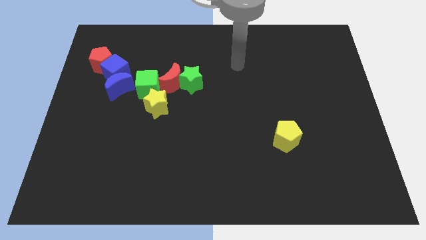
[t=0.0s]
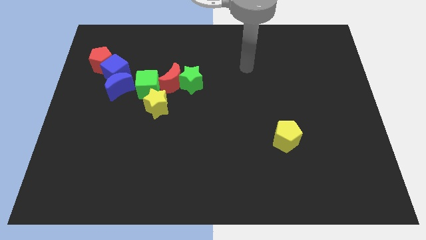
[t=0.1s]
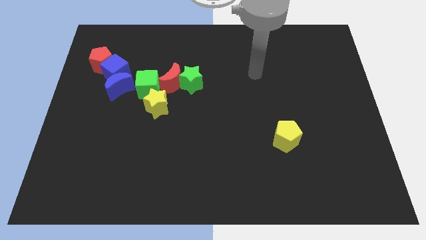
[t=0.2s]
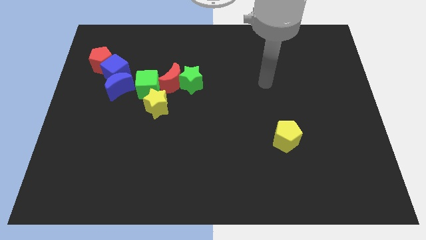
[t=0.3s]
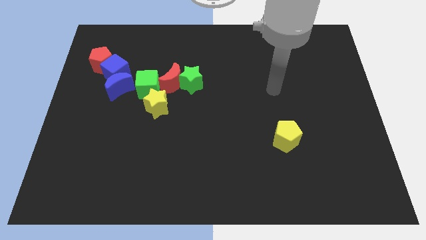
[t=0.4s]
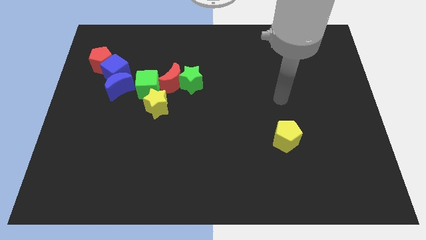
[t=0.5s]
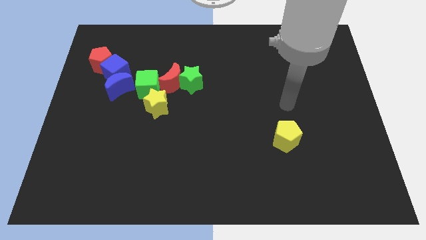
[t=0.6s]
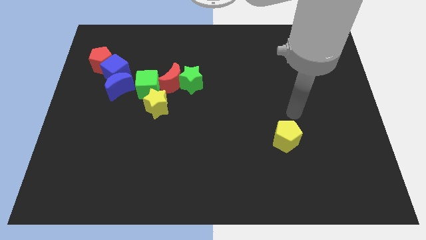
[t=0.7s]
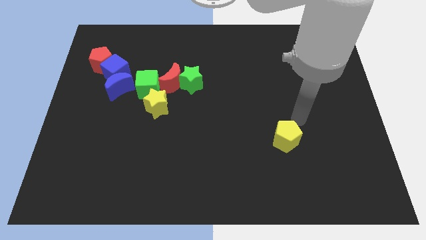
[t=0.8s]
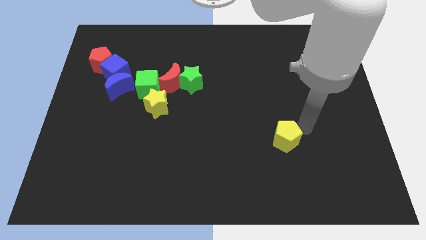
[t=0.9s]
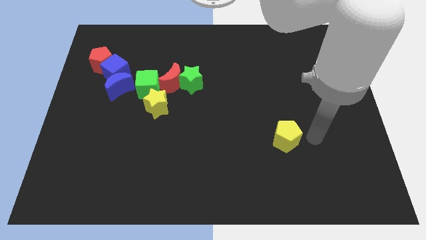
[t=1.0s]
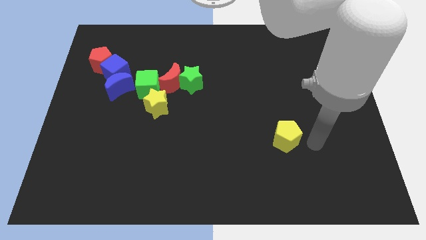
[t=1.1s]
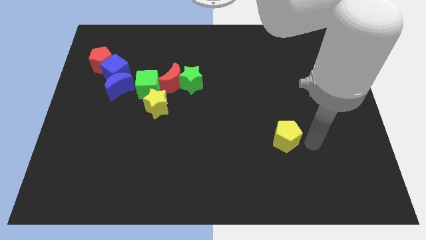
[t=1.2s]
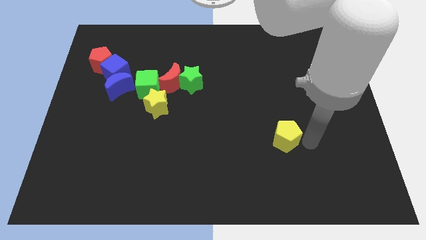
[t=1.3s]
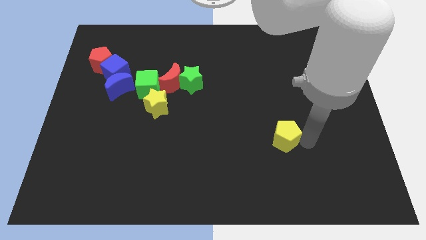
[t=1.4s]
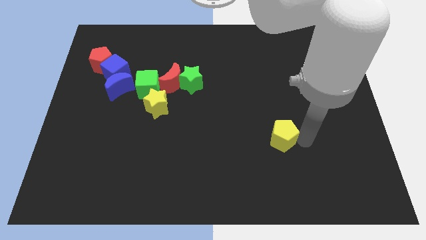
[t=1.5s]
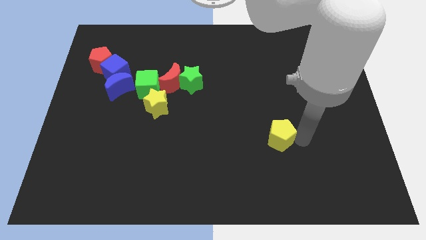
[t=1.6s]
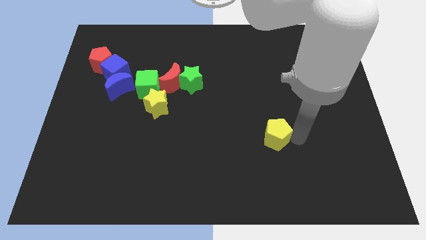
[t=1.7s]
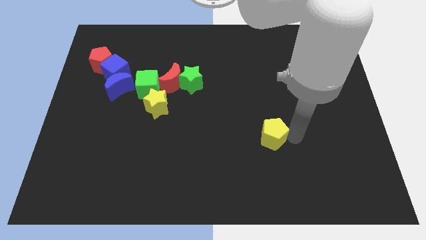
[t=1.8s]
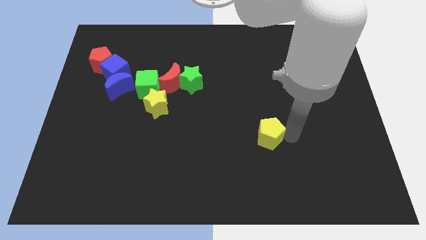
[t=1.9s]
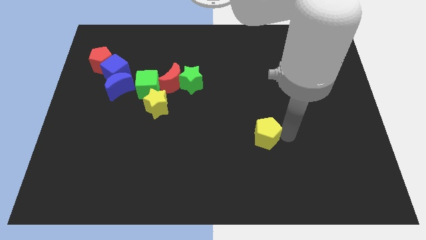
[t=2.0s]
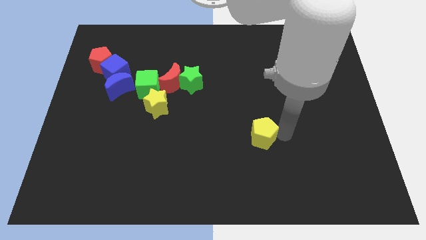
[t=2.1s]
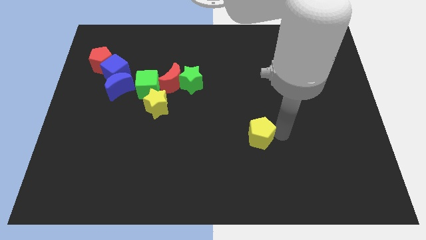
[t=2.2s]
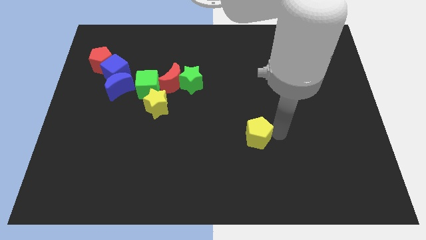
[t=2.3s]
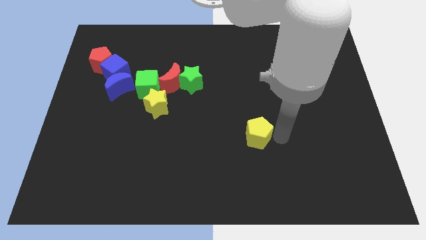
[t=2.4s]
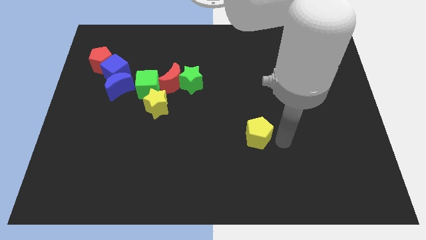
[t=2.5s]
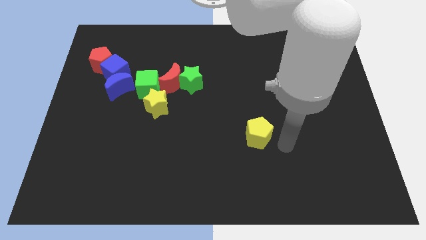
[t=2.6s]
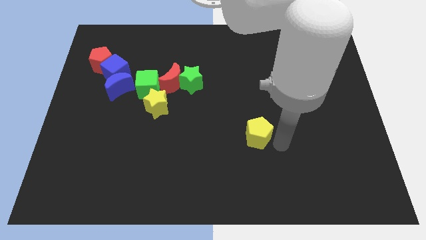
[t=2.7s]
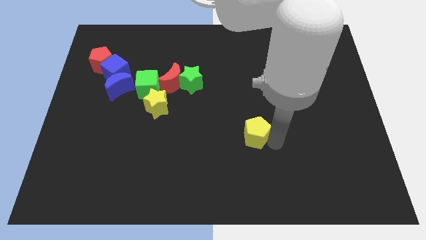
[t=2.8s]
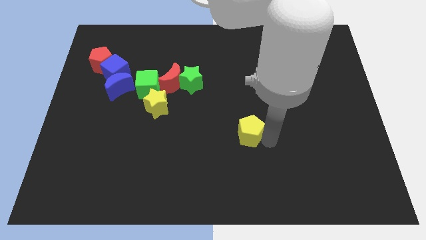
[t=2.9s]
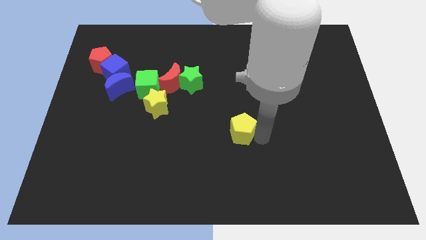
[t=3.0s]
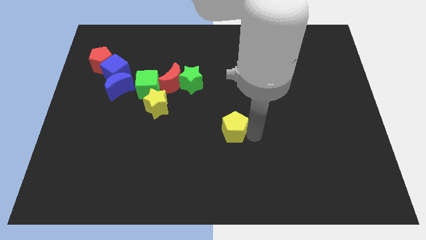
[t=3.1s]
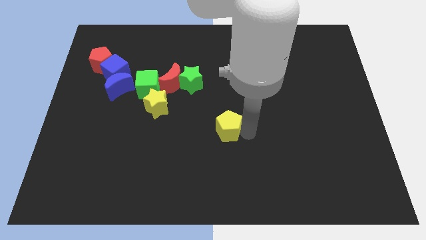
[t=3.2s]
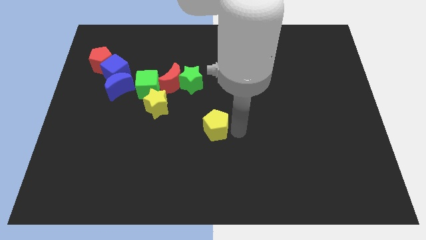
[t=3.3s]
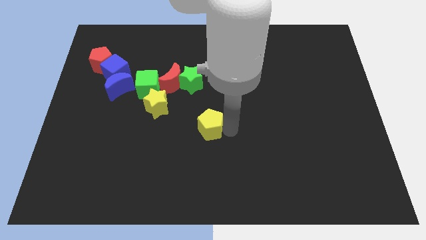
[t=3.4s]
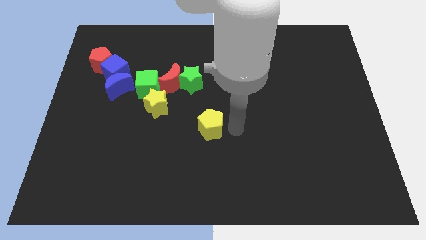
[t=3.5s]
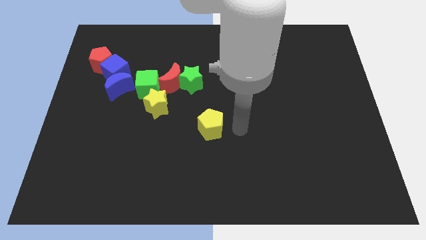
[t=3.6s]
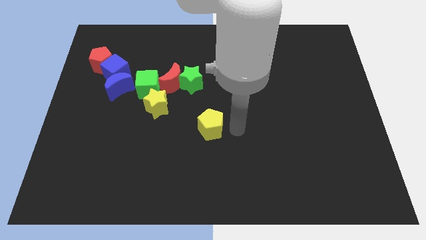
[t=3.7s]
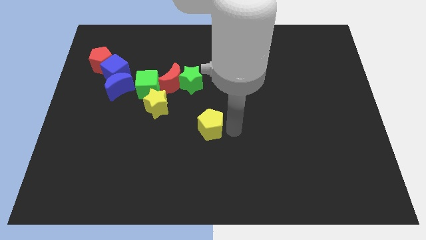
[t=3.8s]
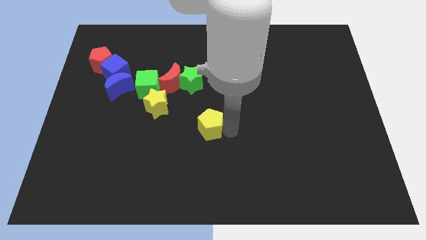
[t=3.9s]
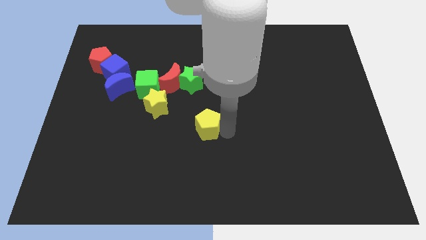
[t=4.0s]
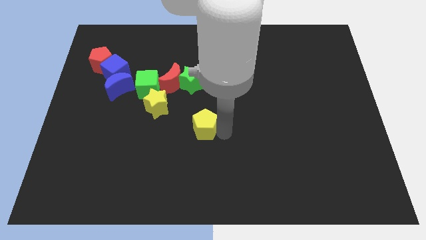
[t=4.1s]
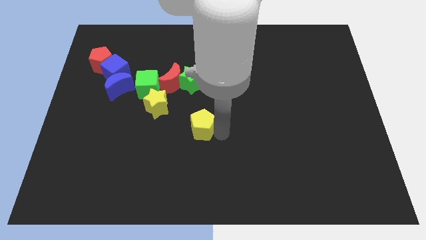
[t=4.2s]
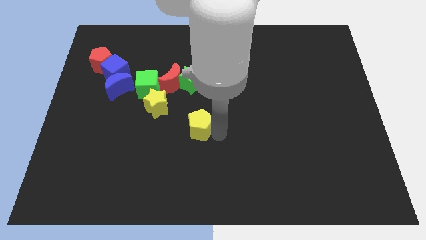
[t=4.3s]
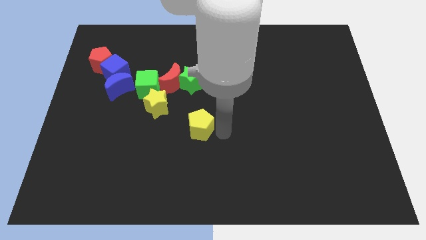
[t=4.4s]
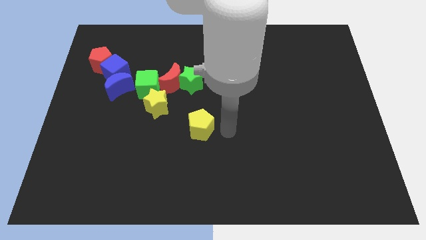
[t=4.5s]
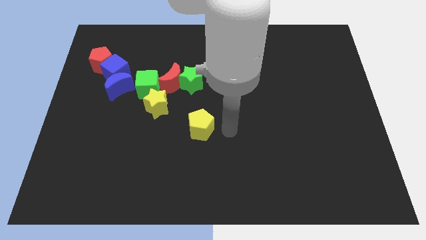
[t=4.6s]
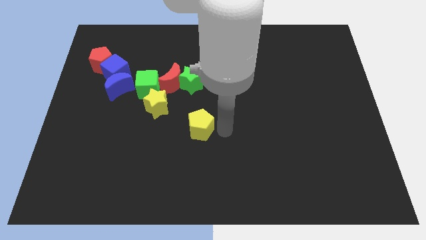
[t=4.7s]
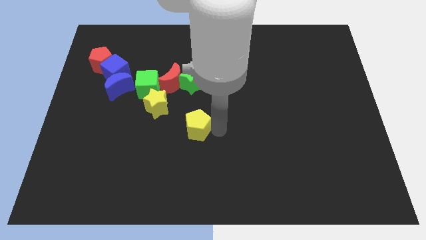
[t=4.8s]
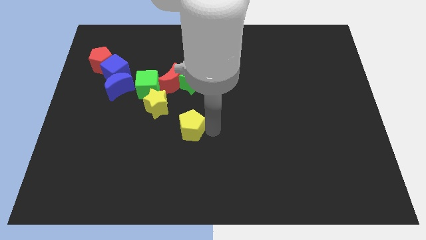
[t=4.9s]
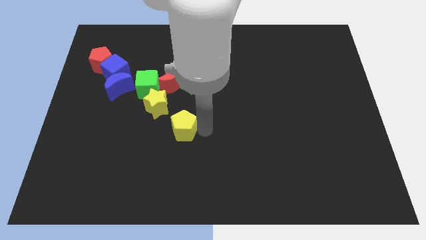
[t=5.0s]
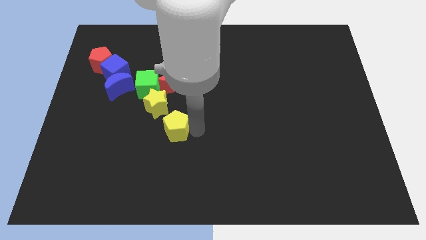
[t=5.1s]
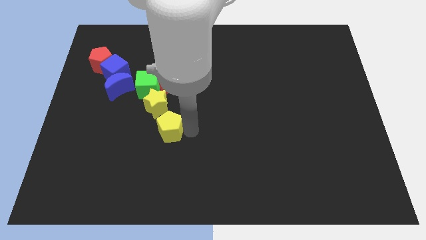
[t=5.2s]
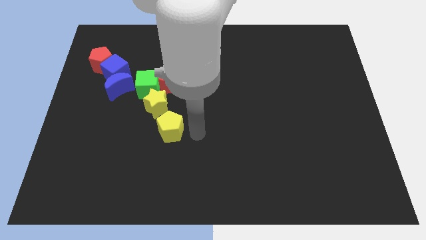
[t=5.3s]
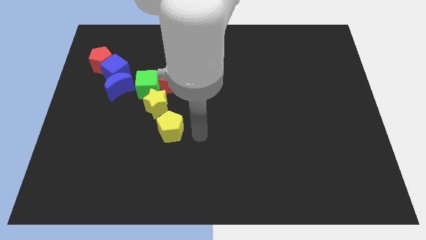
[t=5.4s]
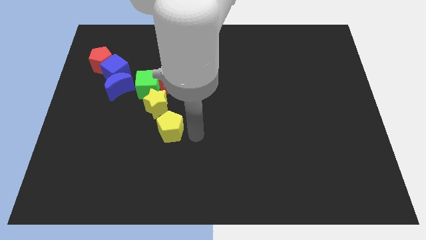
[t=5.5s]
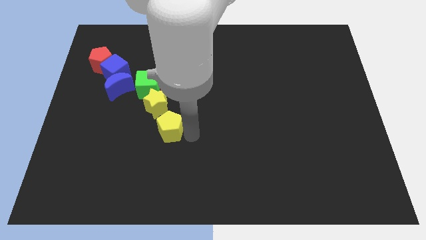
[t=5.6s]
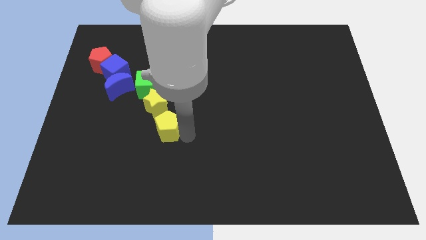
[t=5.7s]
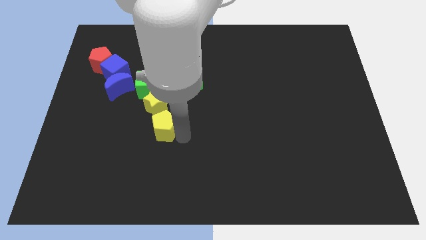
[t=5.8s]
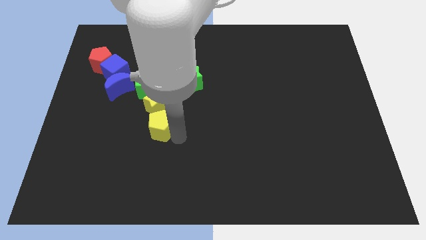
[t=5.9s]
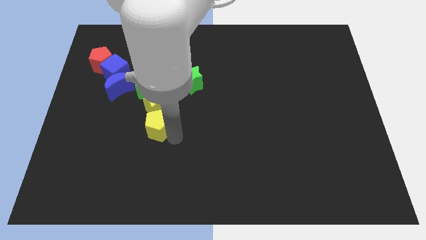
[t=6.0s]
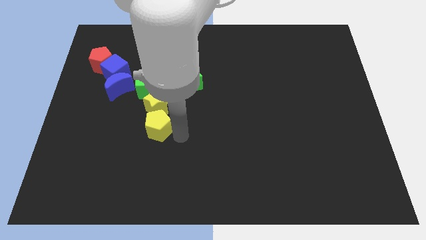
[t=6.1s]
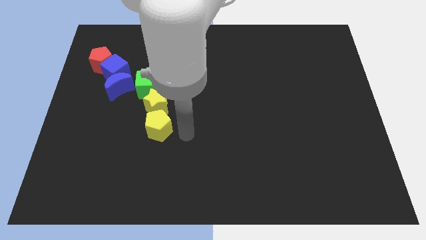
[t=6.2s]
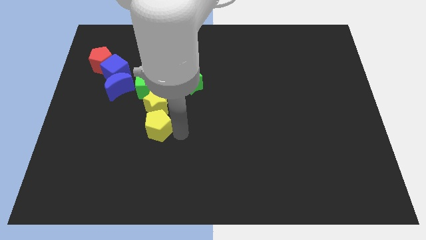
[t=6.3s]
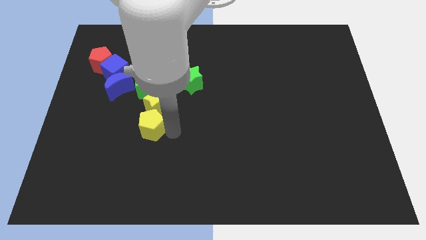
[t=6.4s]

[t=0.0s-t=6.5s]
push the yellow pentagon to the bottom left side of the yellow star
